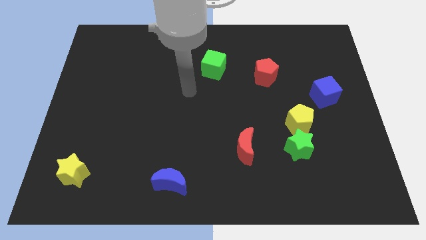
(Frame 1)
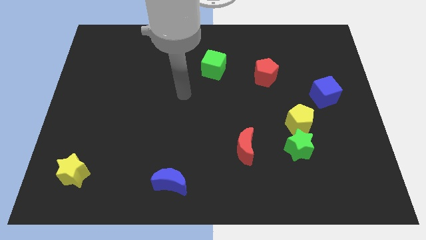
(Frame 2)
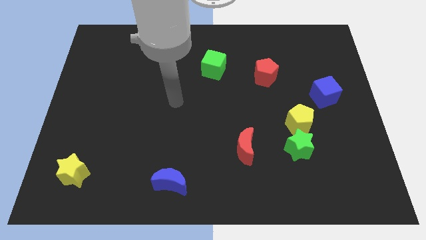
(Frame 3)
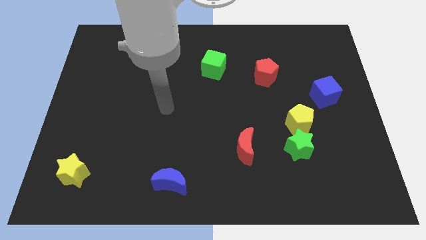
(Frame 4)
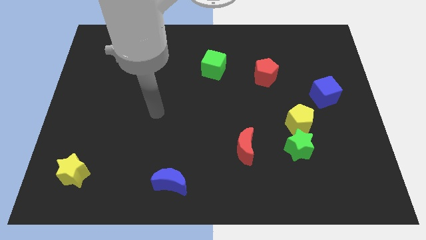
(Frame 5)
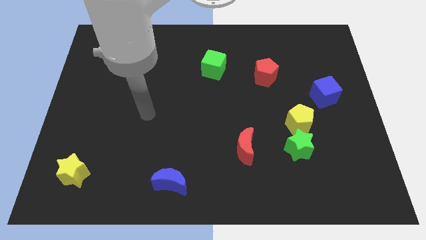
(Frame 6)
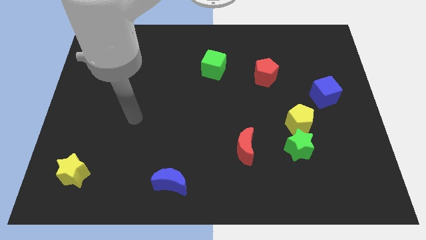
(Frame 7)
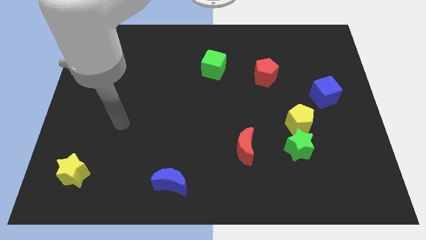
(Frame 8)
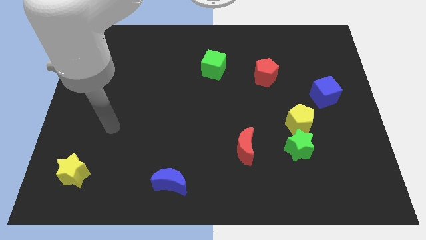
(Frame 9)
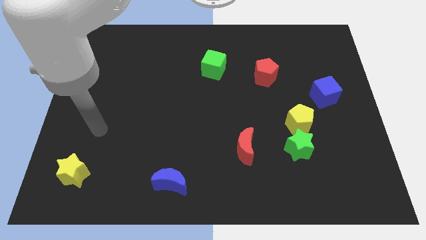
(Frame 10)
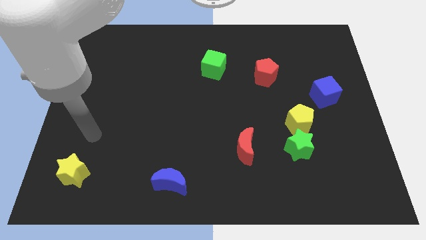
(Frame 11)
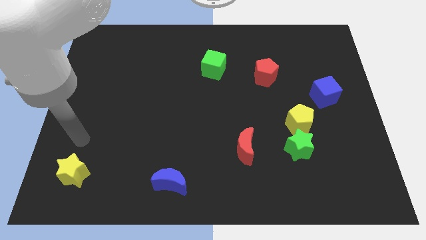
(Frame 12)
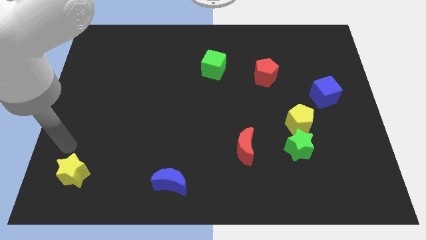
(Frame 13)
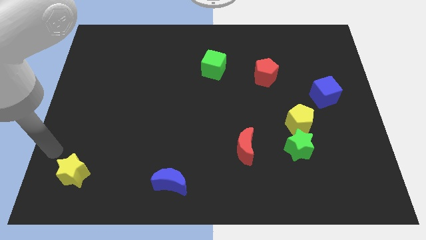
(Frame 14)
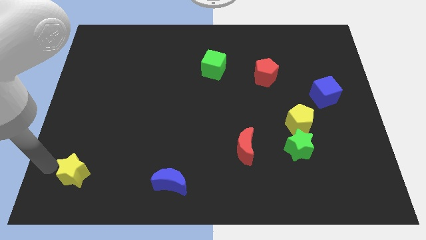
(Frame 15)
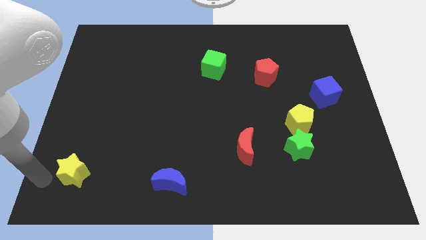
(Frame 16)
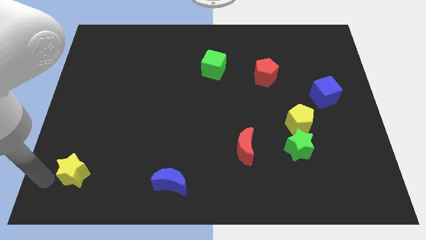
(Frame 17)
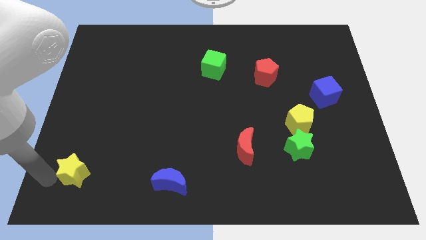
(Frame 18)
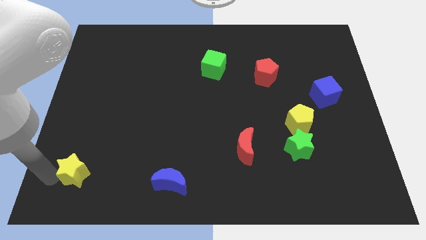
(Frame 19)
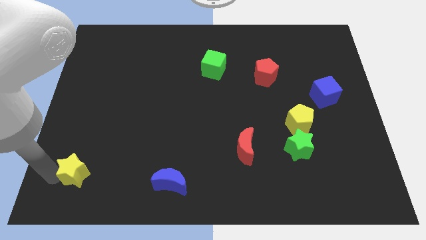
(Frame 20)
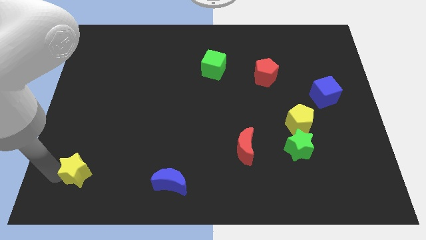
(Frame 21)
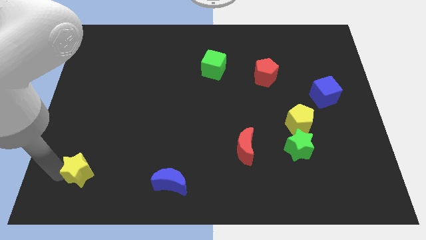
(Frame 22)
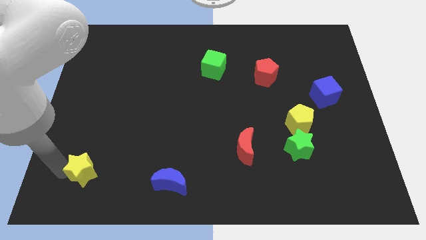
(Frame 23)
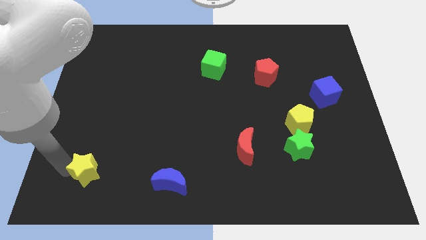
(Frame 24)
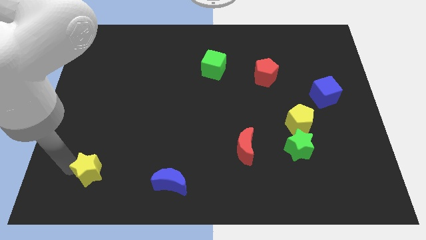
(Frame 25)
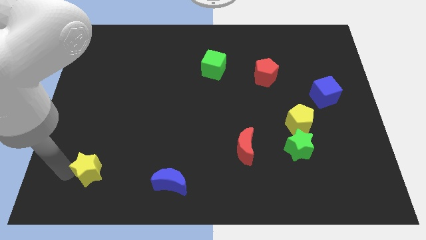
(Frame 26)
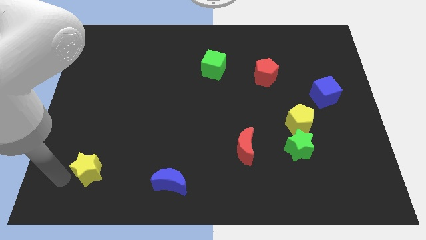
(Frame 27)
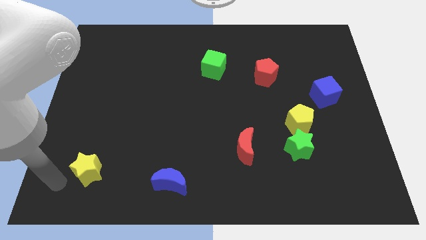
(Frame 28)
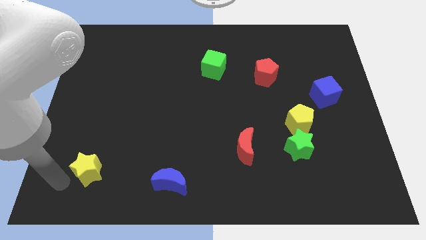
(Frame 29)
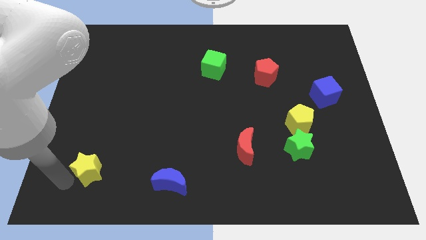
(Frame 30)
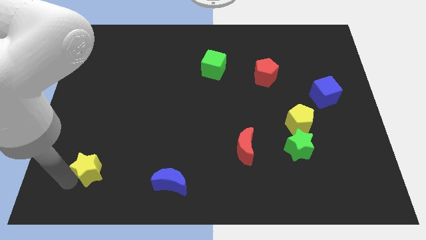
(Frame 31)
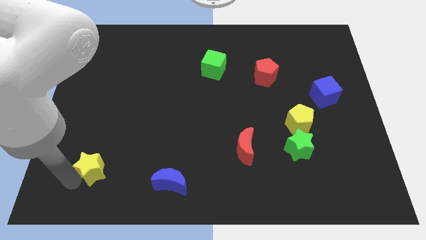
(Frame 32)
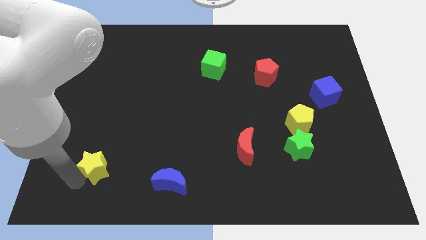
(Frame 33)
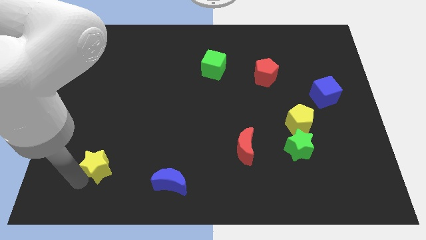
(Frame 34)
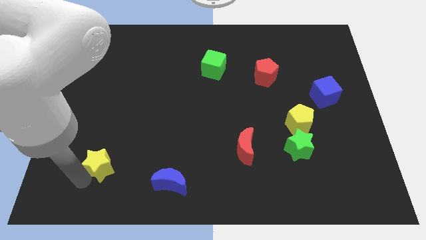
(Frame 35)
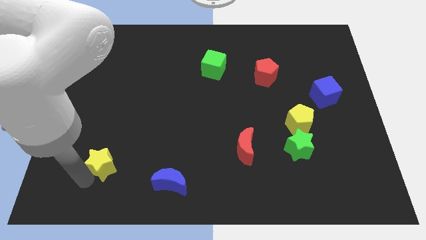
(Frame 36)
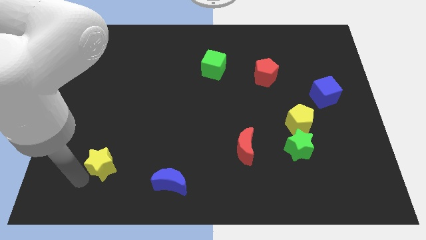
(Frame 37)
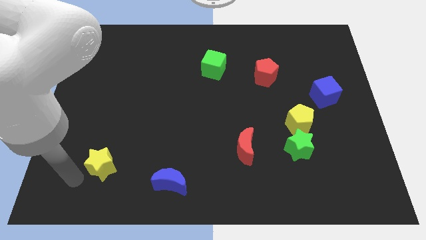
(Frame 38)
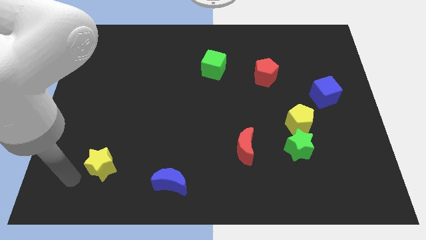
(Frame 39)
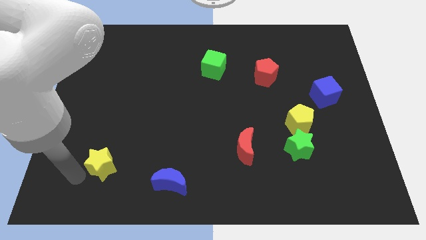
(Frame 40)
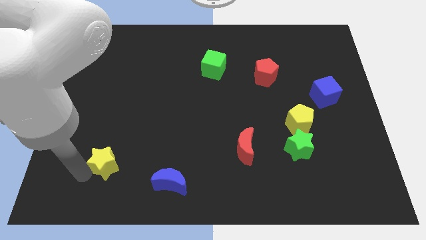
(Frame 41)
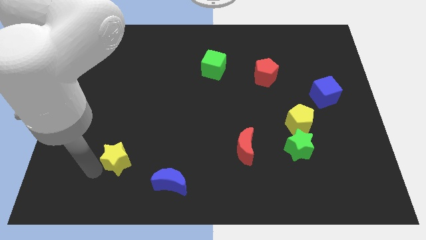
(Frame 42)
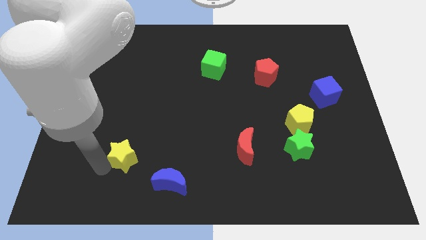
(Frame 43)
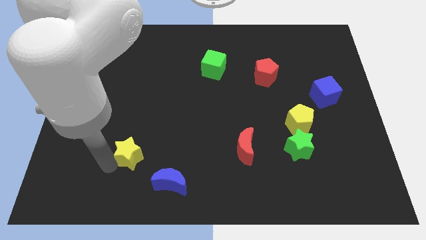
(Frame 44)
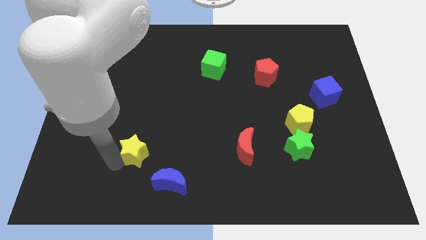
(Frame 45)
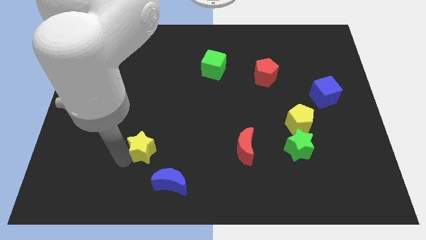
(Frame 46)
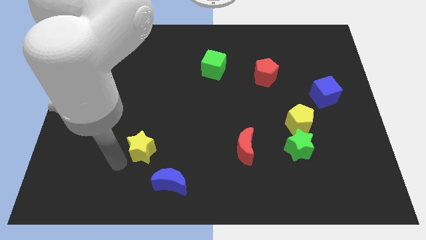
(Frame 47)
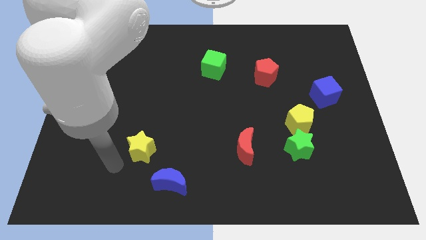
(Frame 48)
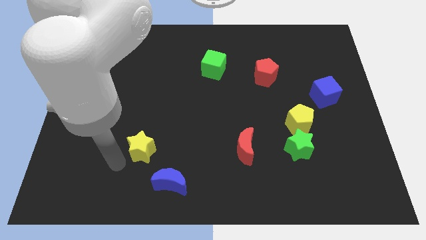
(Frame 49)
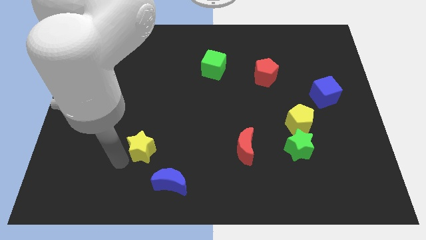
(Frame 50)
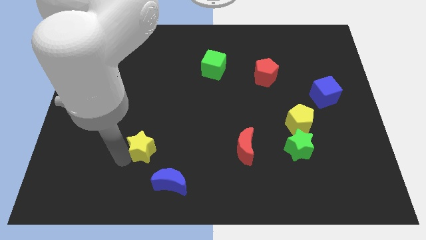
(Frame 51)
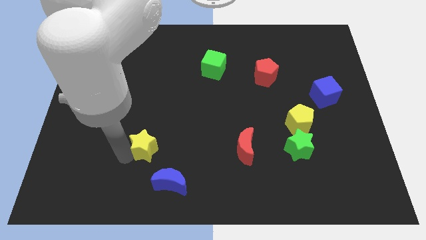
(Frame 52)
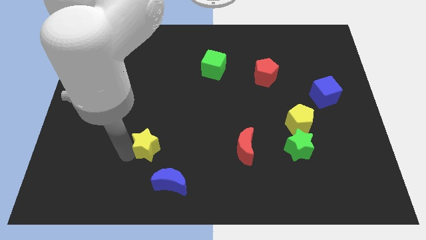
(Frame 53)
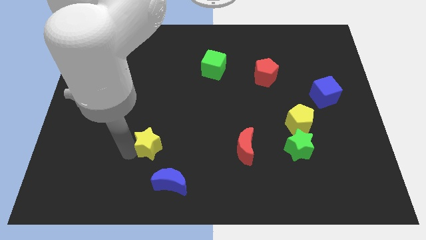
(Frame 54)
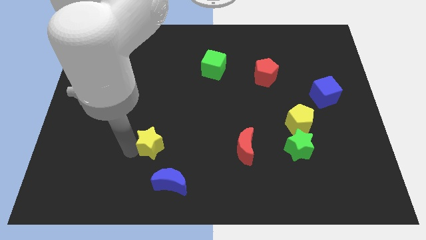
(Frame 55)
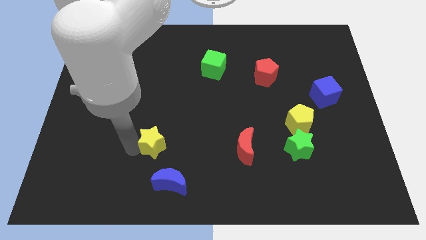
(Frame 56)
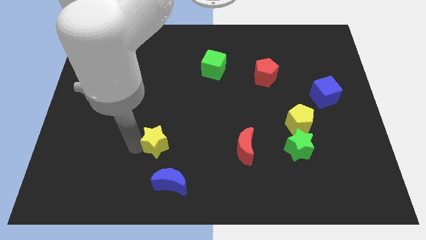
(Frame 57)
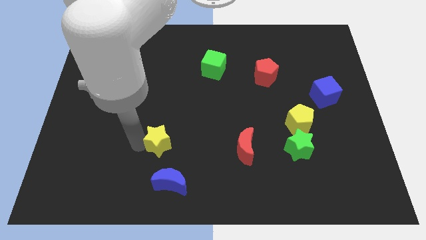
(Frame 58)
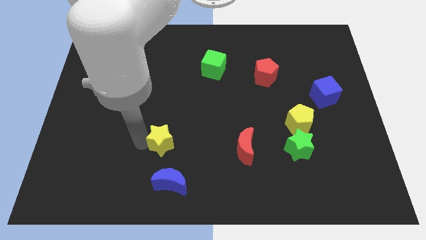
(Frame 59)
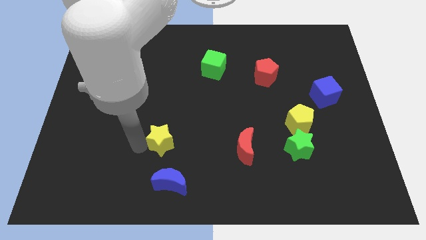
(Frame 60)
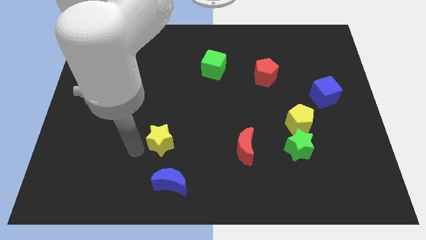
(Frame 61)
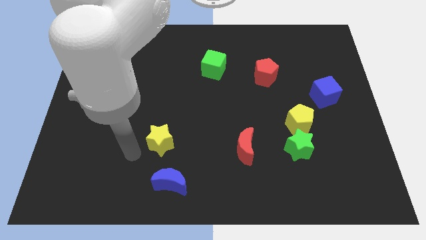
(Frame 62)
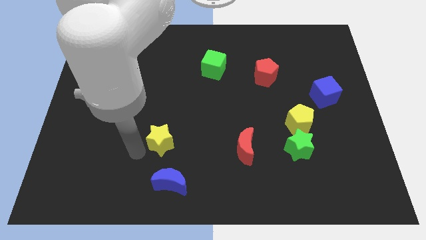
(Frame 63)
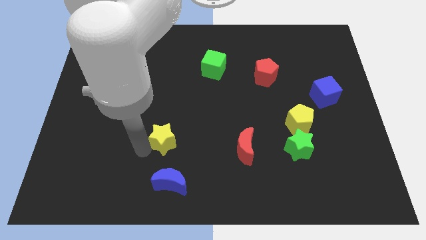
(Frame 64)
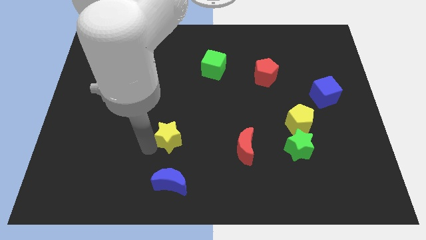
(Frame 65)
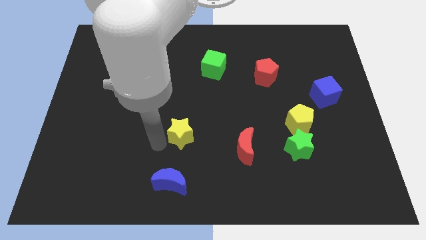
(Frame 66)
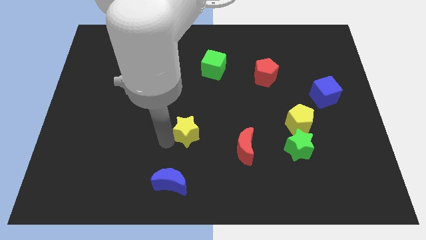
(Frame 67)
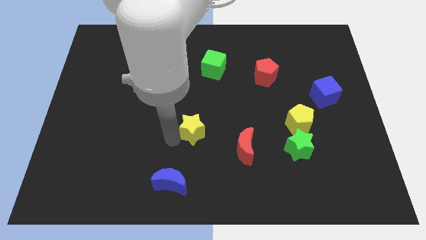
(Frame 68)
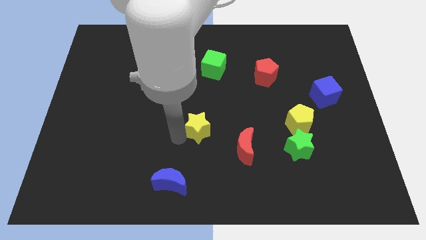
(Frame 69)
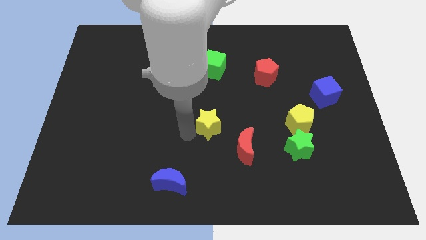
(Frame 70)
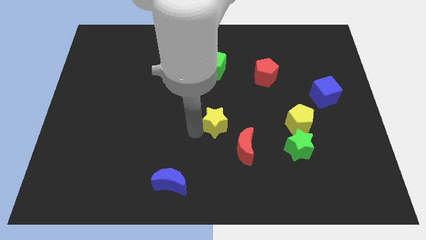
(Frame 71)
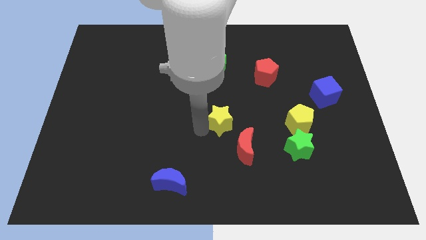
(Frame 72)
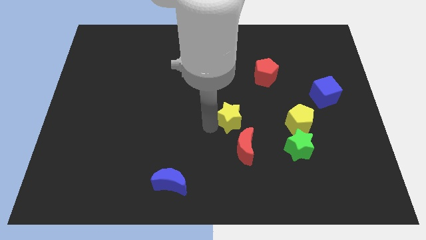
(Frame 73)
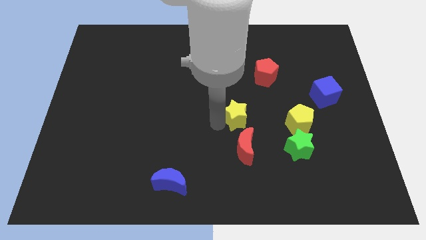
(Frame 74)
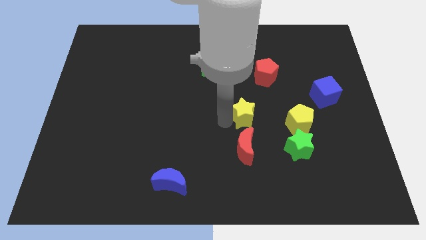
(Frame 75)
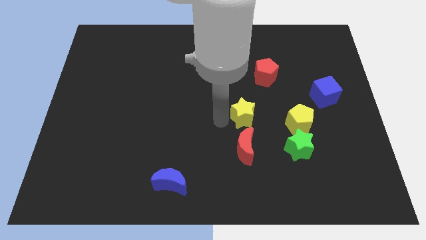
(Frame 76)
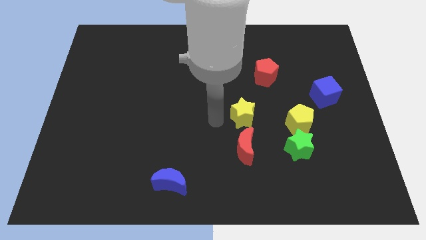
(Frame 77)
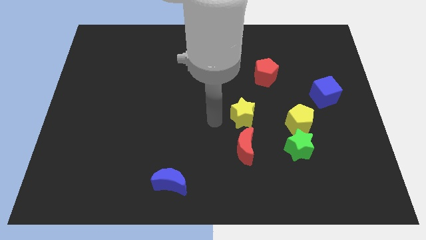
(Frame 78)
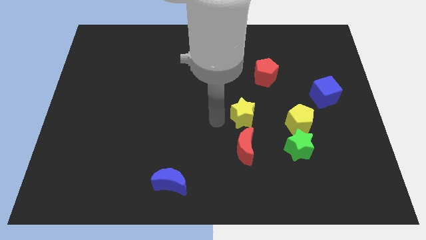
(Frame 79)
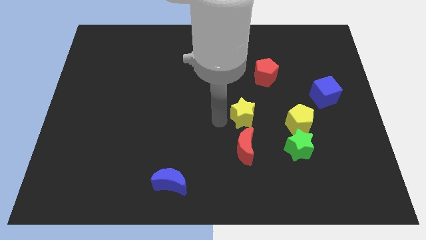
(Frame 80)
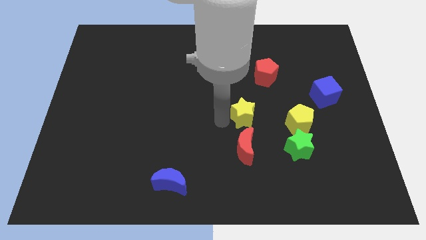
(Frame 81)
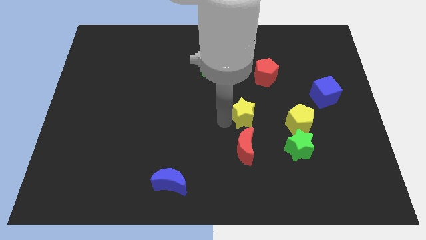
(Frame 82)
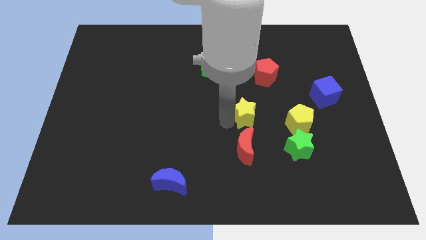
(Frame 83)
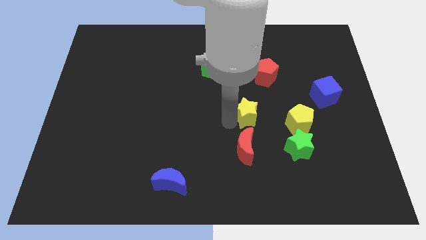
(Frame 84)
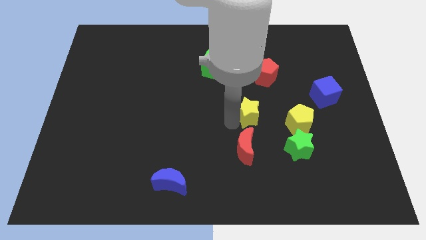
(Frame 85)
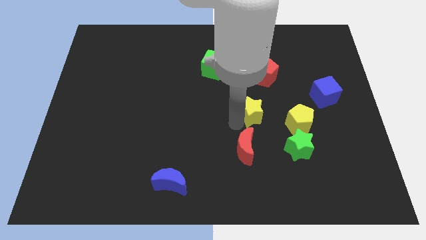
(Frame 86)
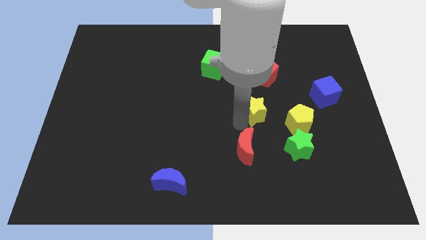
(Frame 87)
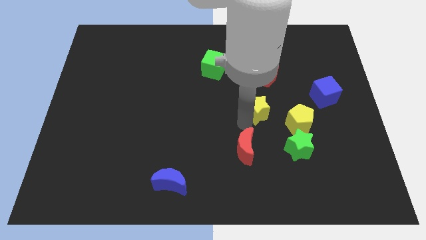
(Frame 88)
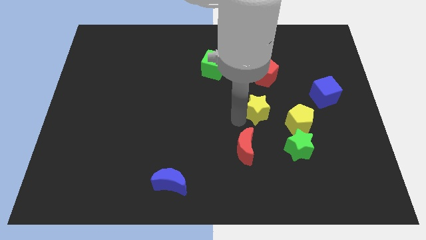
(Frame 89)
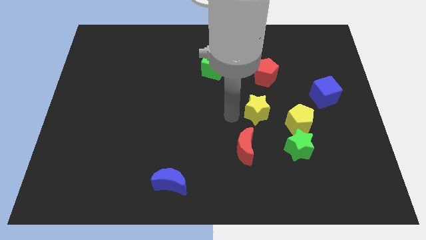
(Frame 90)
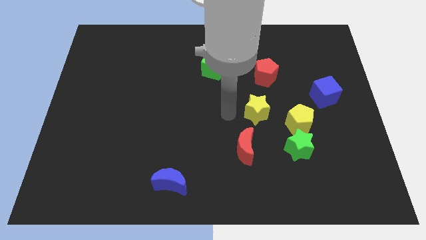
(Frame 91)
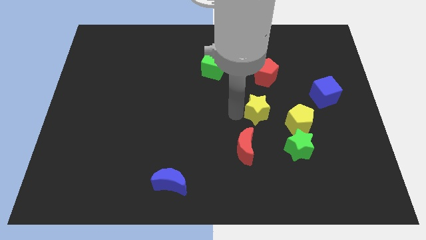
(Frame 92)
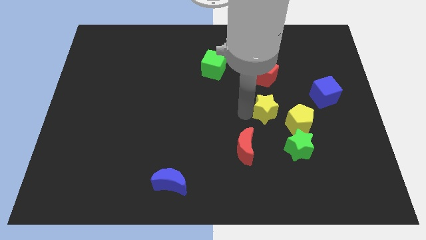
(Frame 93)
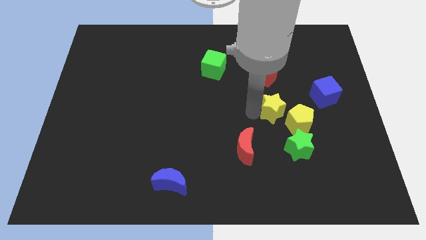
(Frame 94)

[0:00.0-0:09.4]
push the yellow star to the top side of the green star
